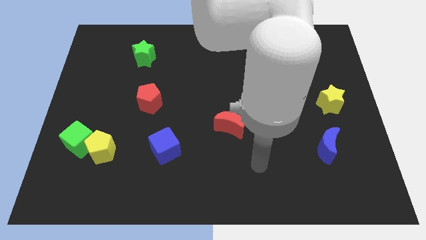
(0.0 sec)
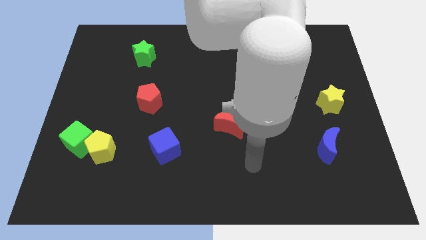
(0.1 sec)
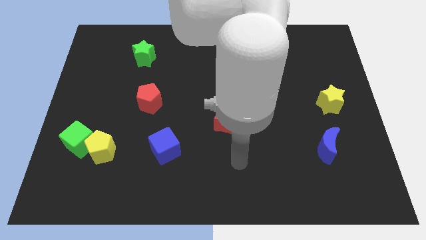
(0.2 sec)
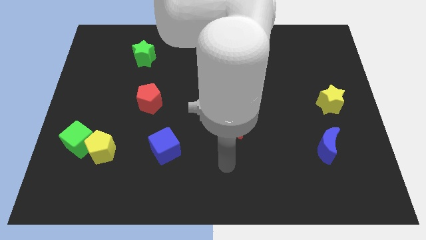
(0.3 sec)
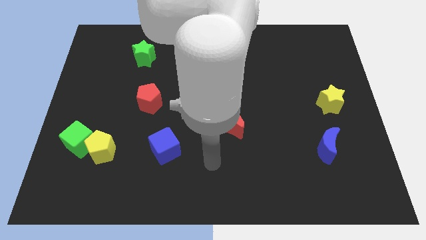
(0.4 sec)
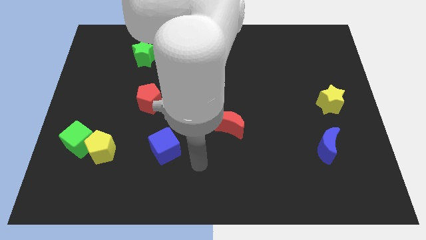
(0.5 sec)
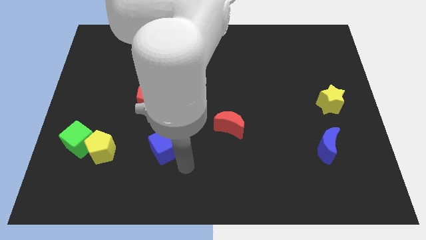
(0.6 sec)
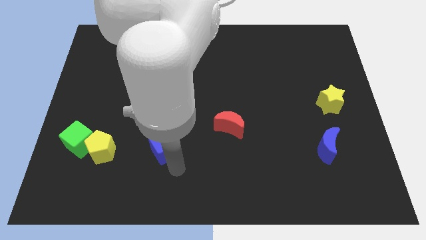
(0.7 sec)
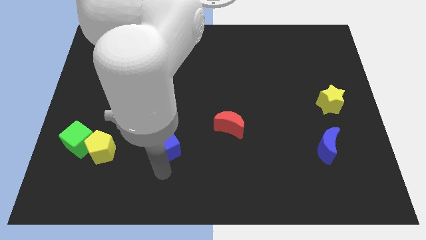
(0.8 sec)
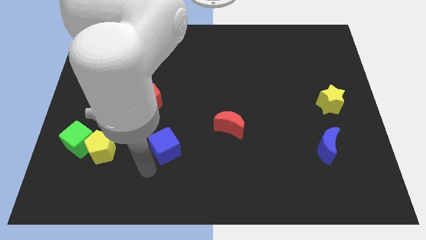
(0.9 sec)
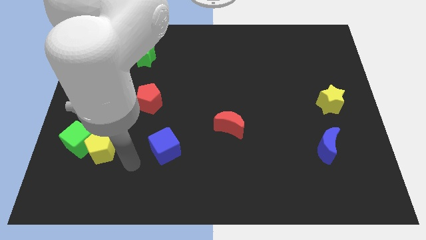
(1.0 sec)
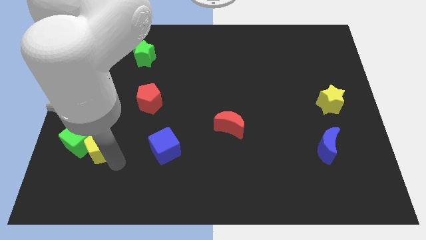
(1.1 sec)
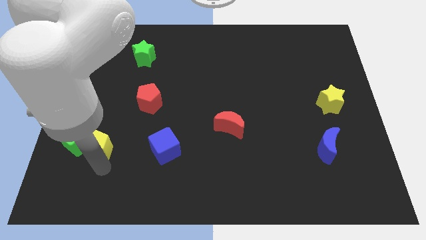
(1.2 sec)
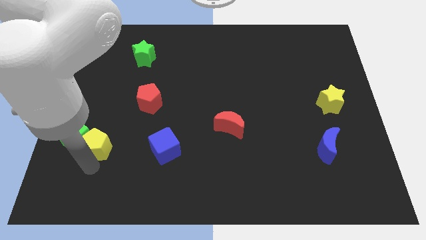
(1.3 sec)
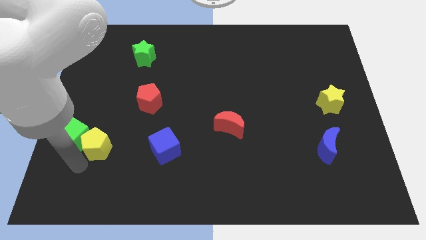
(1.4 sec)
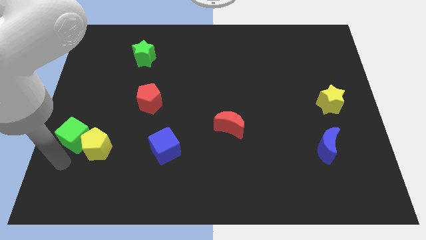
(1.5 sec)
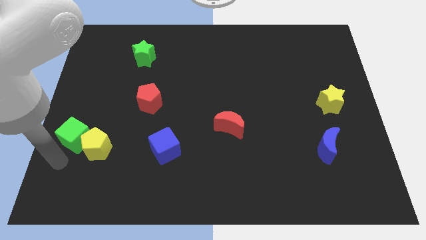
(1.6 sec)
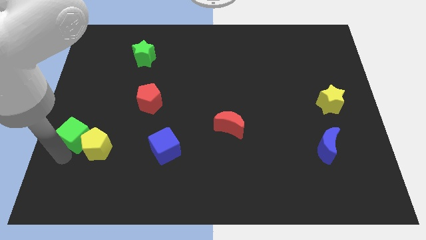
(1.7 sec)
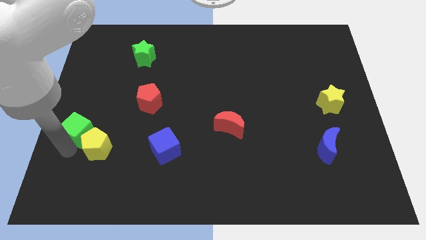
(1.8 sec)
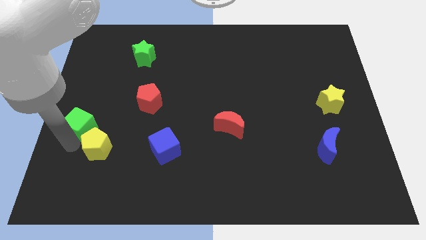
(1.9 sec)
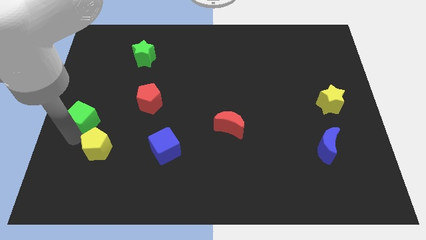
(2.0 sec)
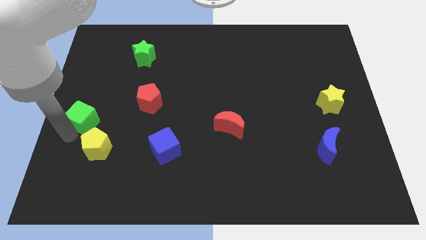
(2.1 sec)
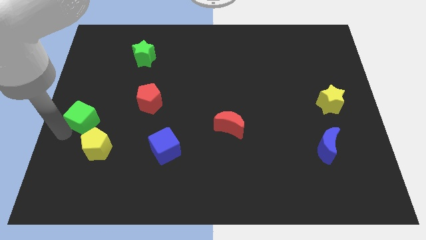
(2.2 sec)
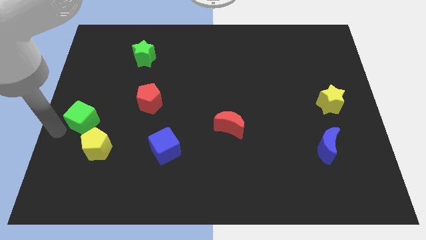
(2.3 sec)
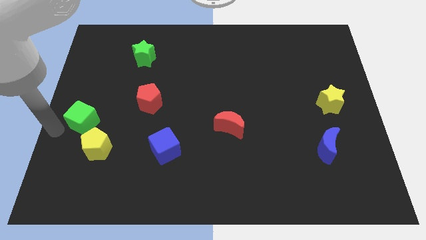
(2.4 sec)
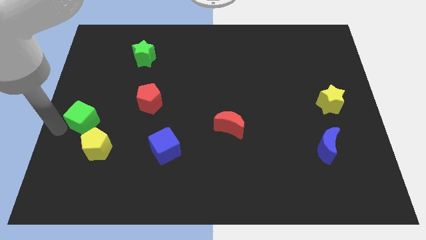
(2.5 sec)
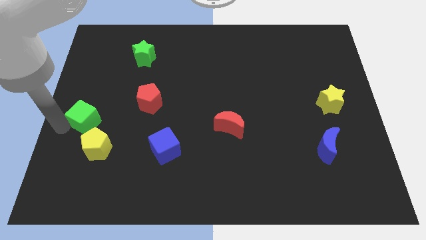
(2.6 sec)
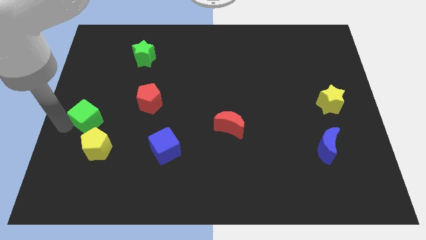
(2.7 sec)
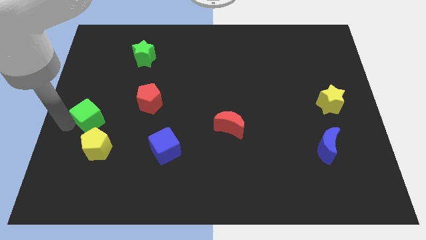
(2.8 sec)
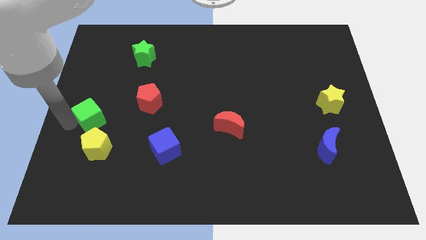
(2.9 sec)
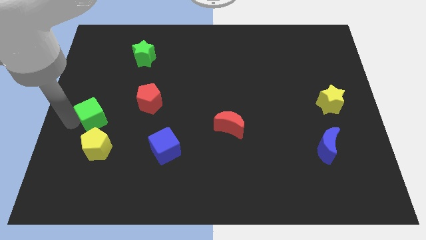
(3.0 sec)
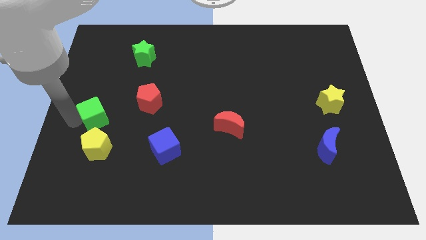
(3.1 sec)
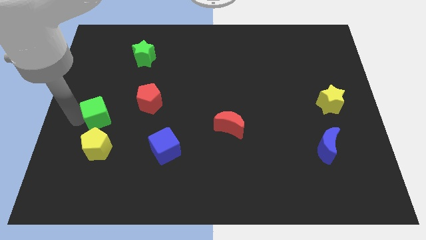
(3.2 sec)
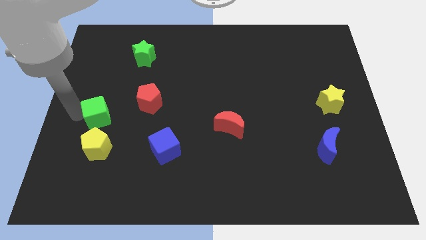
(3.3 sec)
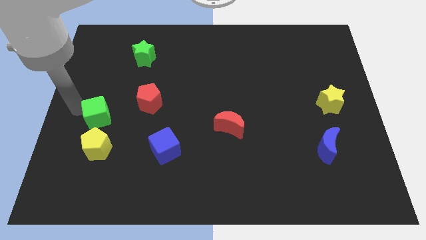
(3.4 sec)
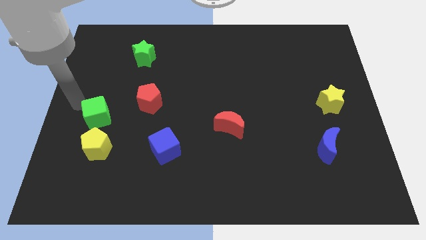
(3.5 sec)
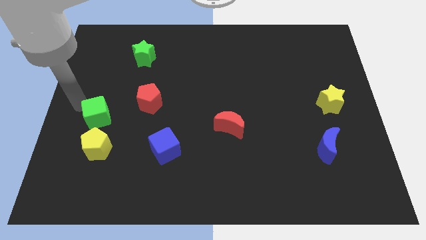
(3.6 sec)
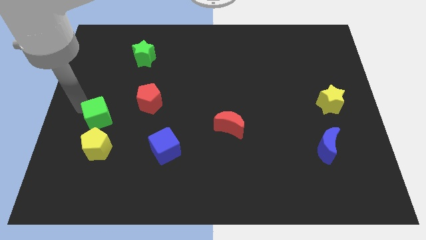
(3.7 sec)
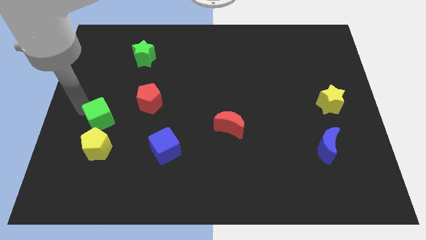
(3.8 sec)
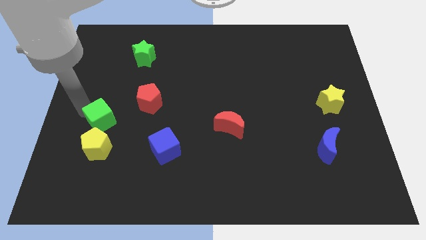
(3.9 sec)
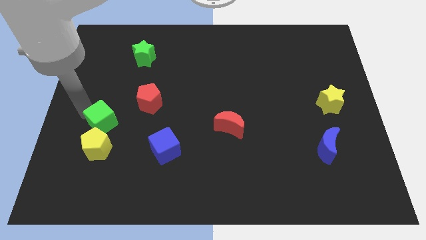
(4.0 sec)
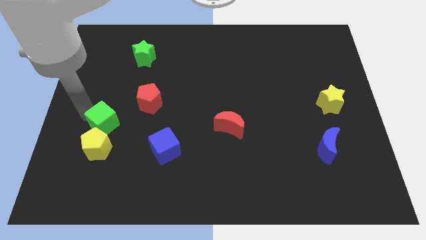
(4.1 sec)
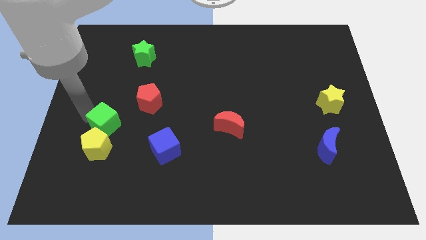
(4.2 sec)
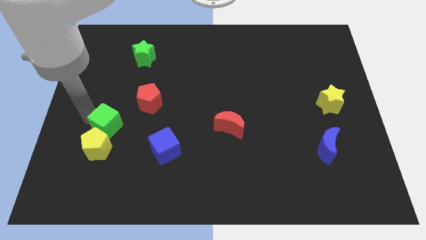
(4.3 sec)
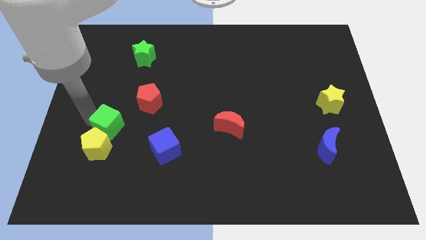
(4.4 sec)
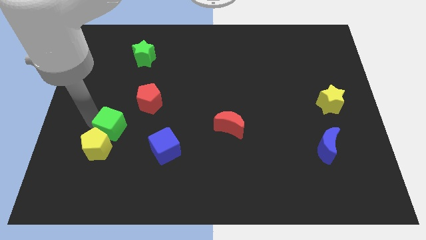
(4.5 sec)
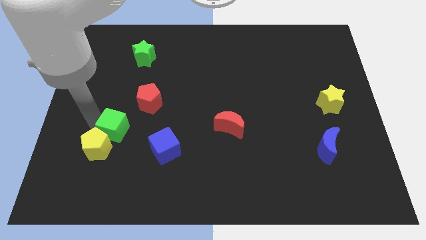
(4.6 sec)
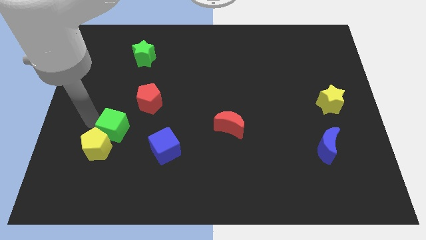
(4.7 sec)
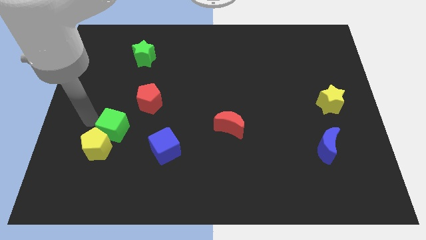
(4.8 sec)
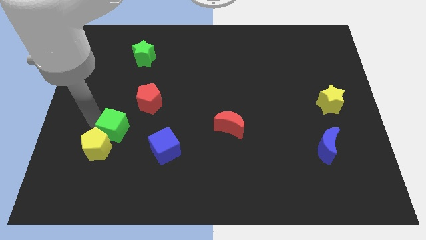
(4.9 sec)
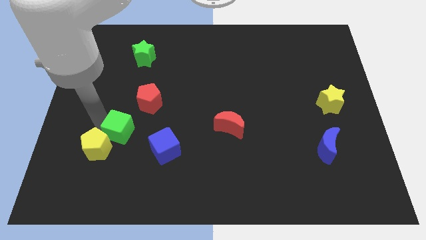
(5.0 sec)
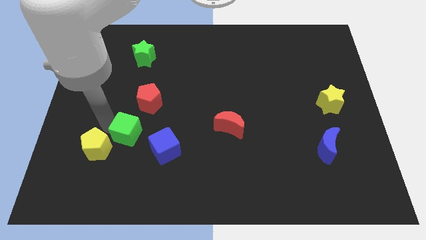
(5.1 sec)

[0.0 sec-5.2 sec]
put the green cube below the red pentagon

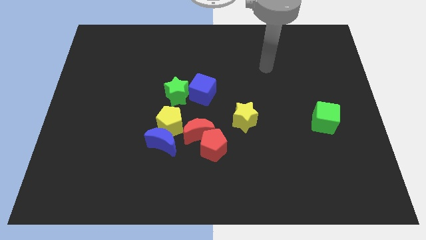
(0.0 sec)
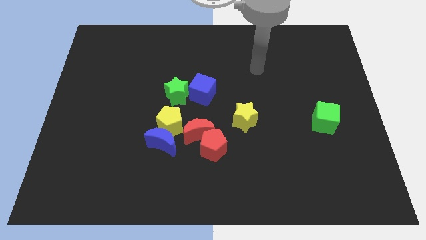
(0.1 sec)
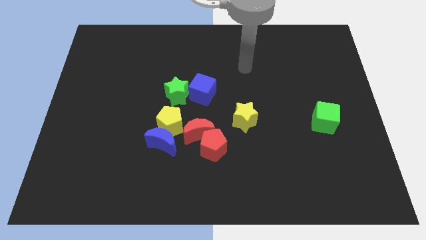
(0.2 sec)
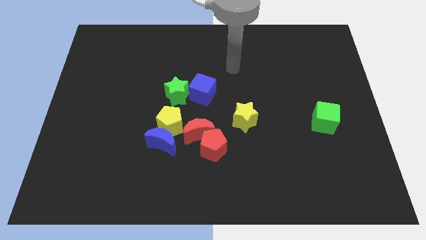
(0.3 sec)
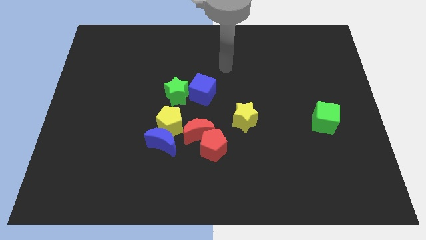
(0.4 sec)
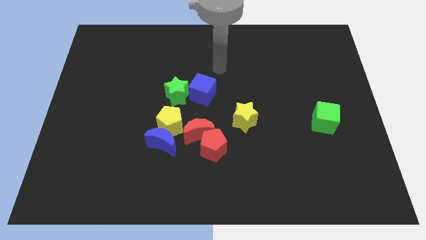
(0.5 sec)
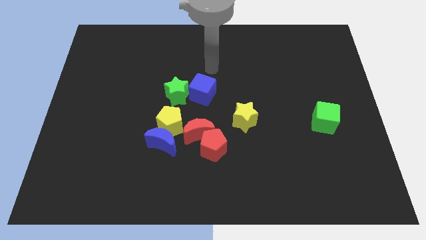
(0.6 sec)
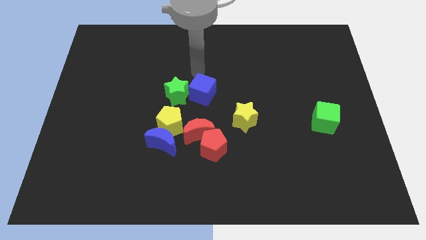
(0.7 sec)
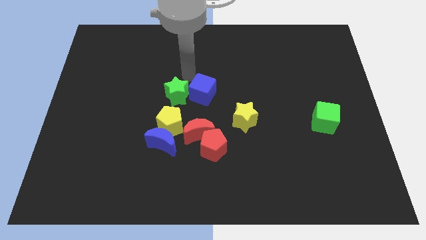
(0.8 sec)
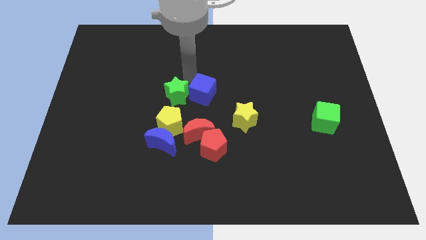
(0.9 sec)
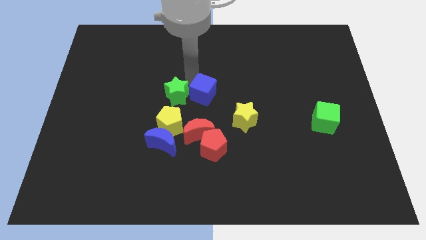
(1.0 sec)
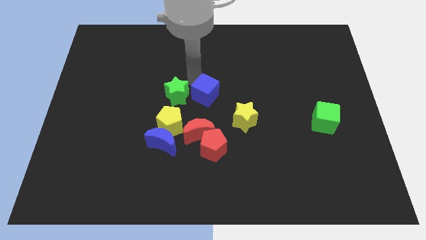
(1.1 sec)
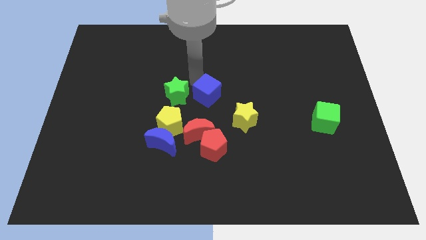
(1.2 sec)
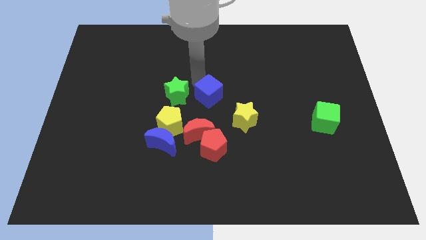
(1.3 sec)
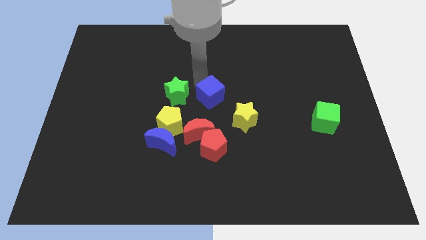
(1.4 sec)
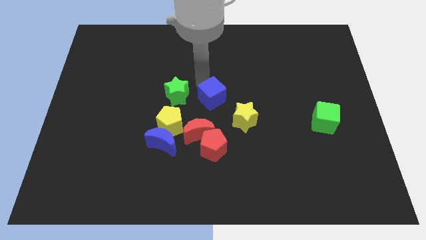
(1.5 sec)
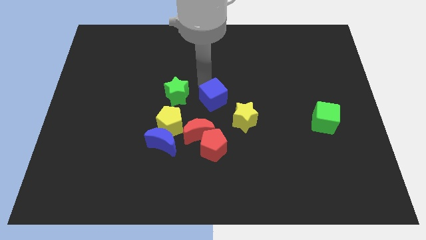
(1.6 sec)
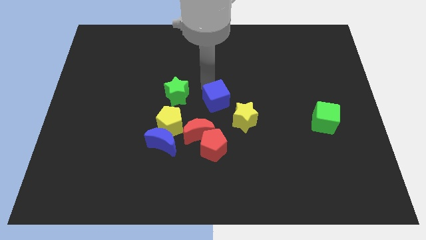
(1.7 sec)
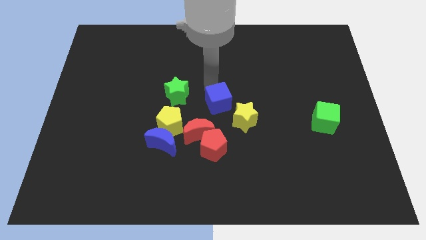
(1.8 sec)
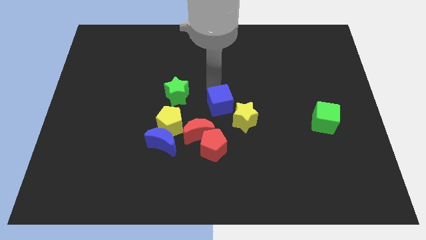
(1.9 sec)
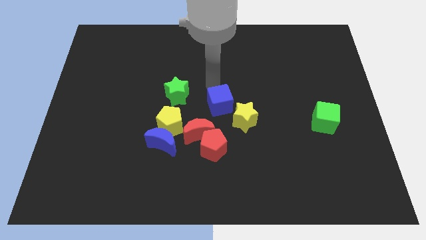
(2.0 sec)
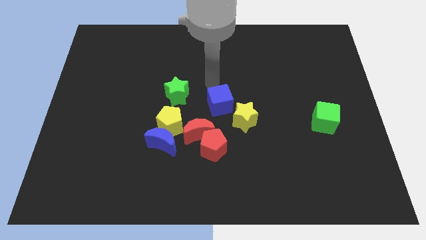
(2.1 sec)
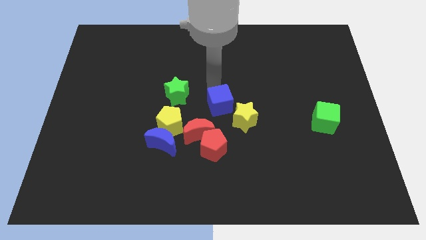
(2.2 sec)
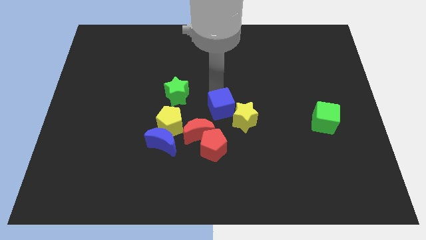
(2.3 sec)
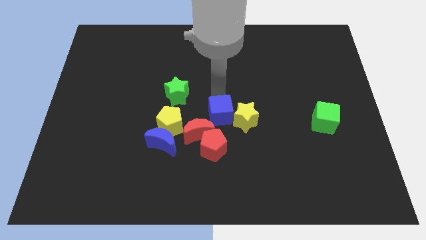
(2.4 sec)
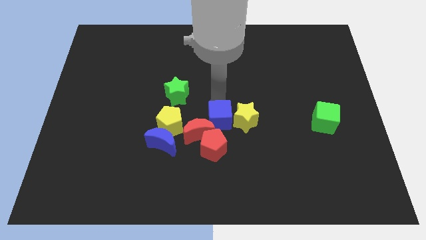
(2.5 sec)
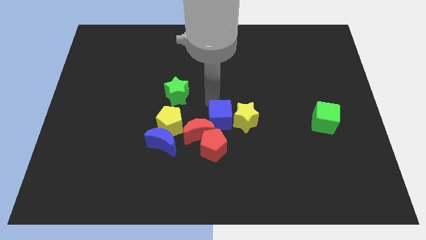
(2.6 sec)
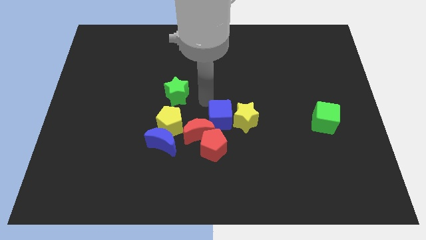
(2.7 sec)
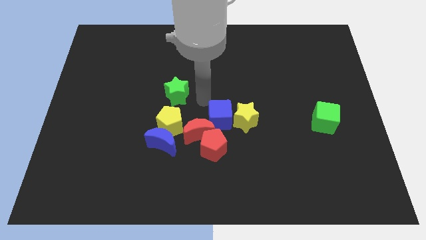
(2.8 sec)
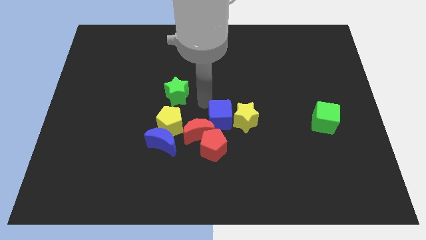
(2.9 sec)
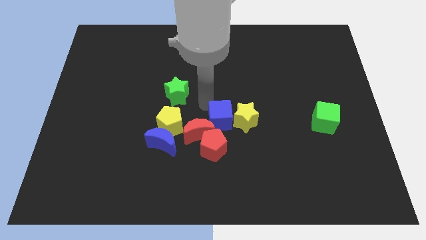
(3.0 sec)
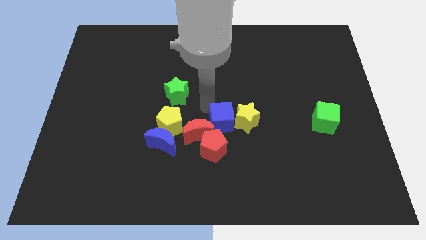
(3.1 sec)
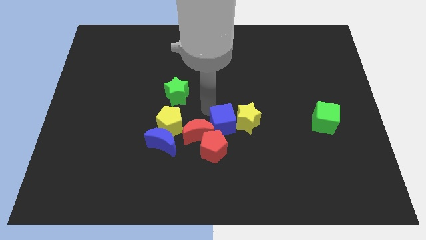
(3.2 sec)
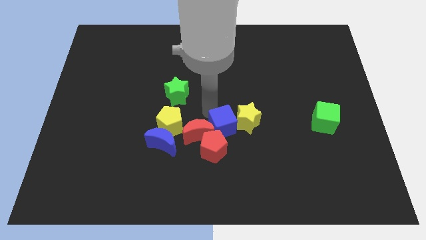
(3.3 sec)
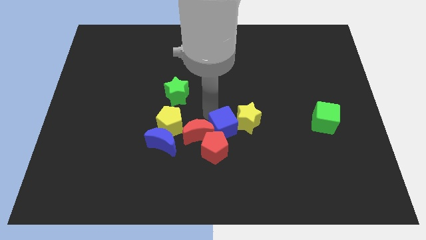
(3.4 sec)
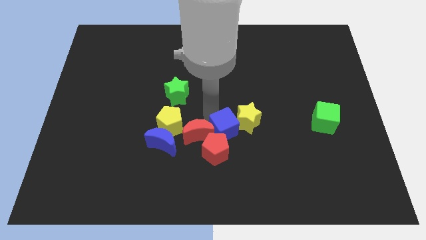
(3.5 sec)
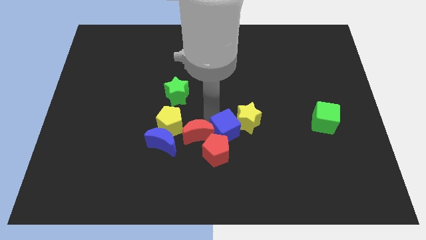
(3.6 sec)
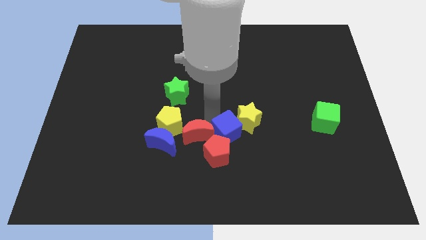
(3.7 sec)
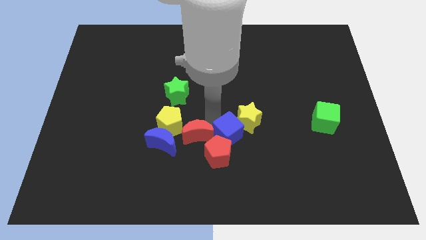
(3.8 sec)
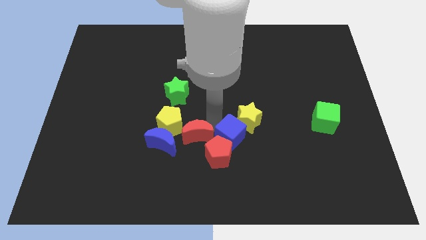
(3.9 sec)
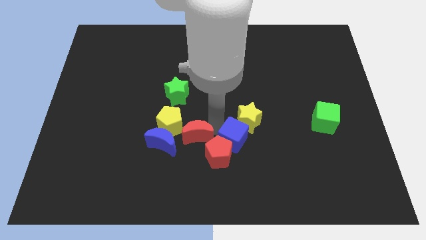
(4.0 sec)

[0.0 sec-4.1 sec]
slide the blue cube just right of the red pentagon
